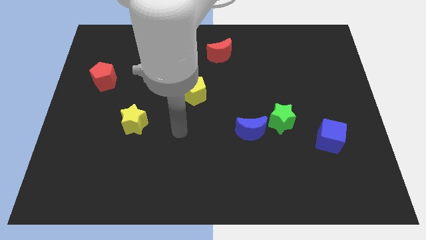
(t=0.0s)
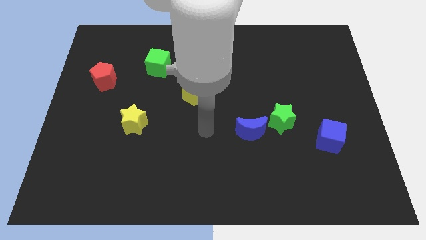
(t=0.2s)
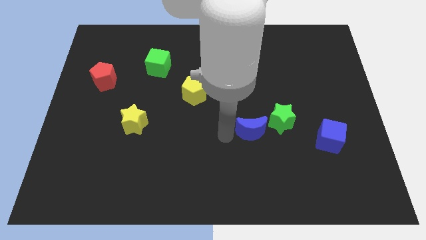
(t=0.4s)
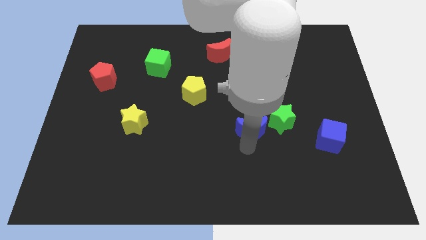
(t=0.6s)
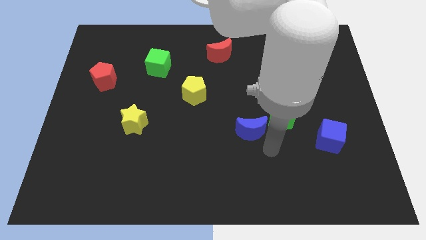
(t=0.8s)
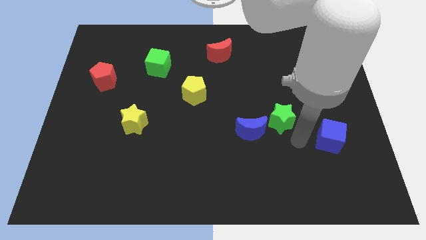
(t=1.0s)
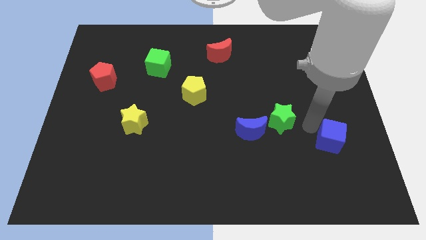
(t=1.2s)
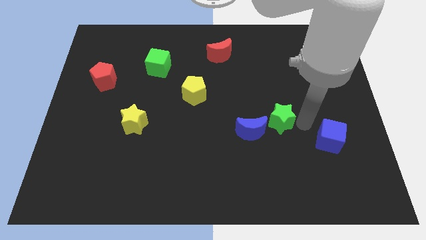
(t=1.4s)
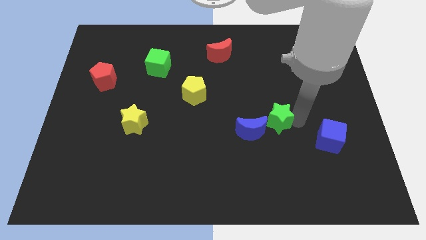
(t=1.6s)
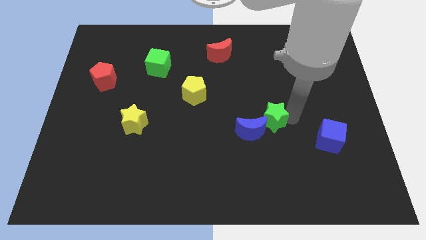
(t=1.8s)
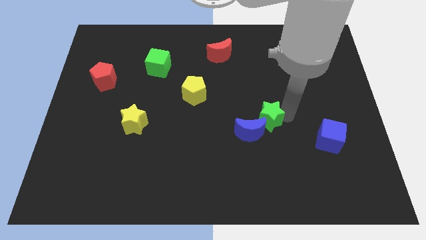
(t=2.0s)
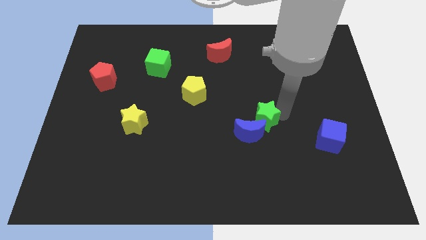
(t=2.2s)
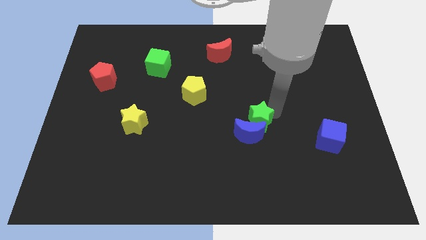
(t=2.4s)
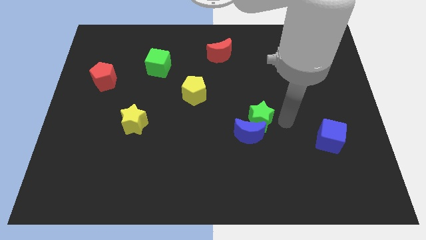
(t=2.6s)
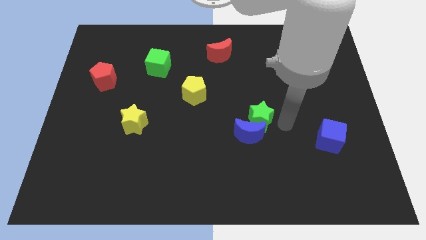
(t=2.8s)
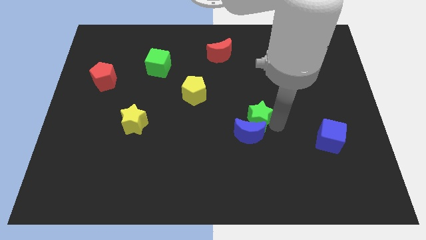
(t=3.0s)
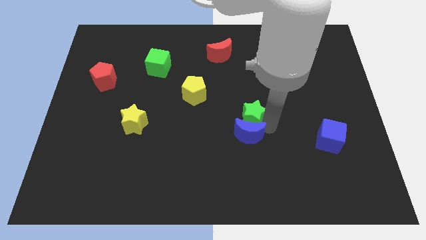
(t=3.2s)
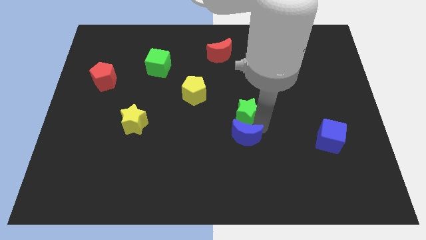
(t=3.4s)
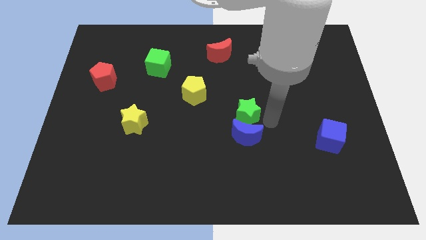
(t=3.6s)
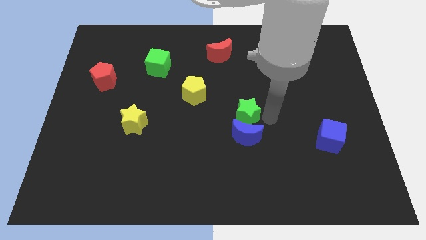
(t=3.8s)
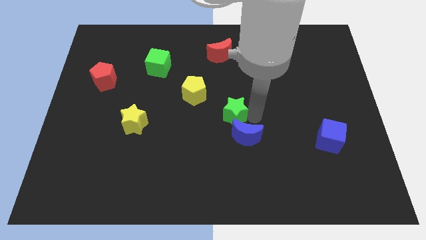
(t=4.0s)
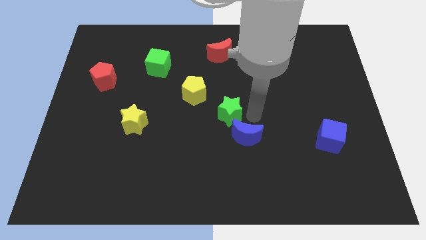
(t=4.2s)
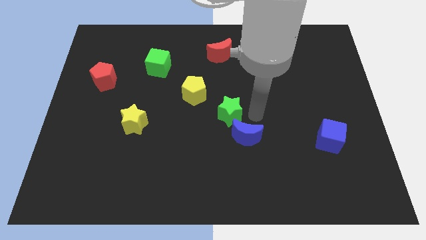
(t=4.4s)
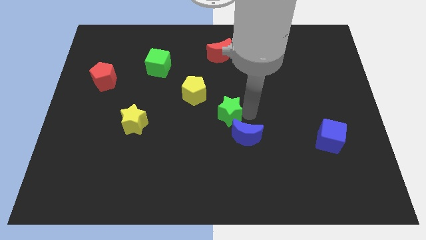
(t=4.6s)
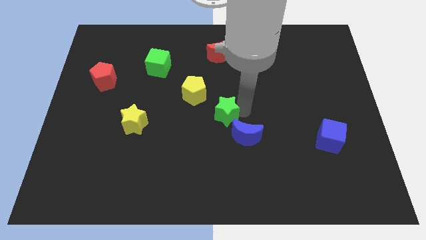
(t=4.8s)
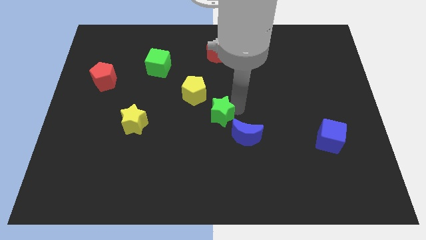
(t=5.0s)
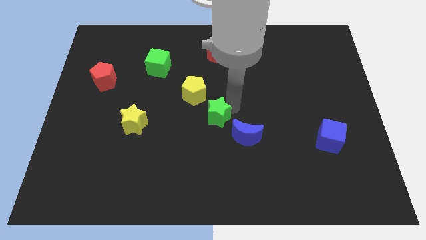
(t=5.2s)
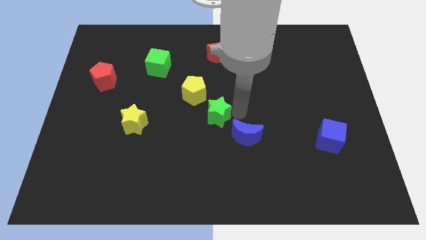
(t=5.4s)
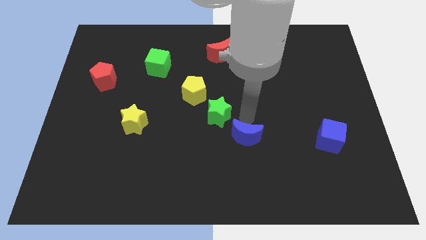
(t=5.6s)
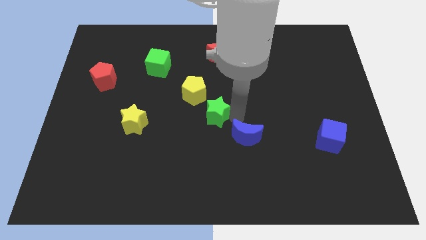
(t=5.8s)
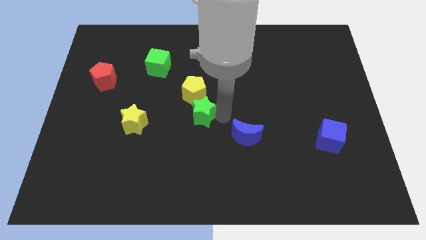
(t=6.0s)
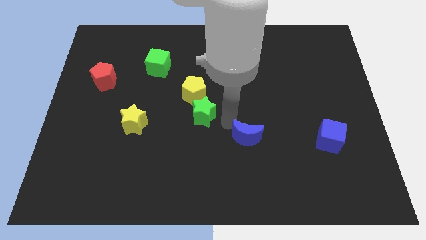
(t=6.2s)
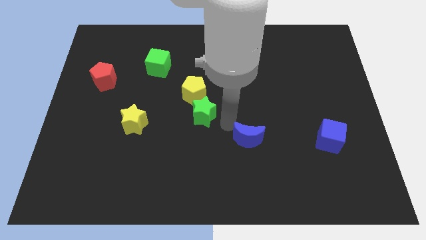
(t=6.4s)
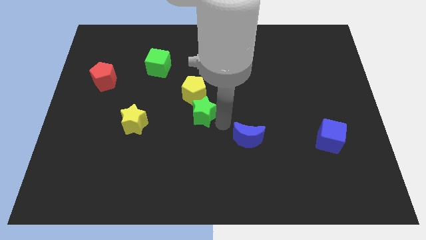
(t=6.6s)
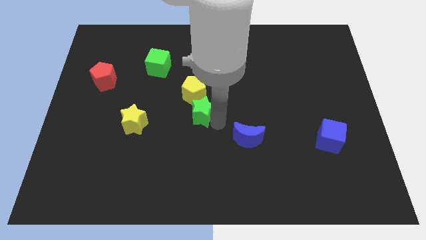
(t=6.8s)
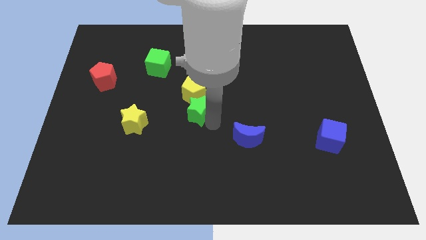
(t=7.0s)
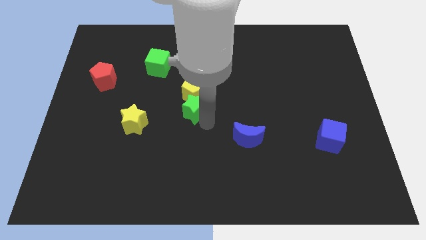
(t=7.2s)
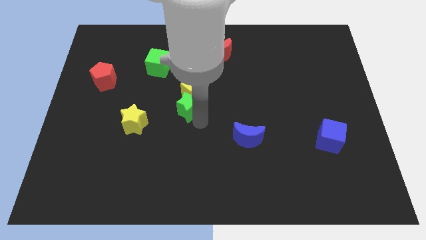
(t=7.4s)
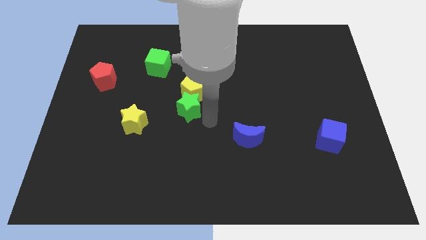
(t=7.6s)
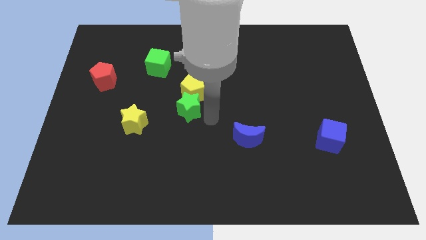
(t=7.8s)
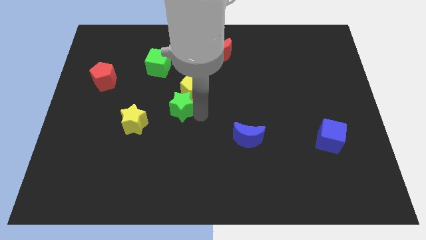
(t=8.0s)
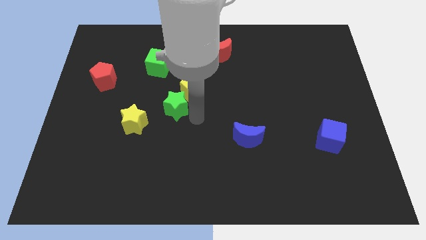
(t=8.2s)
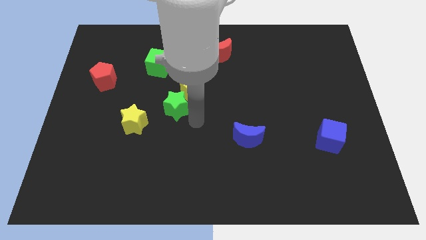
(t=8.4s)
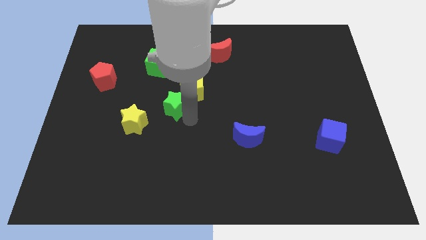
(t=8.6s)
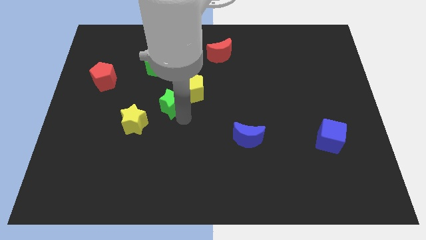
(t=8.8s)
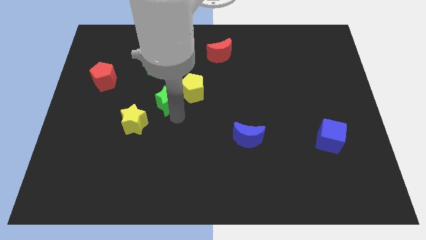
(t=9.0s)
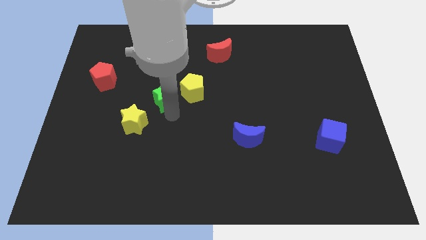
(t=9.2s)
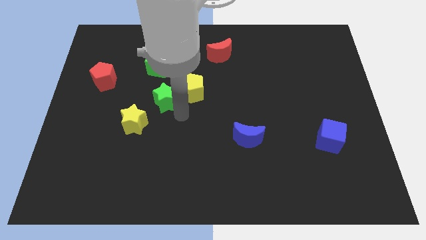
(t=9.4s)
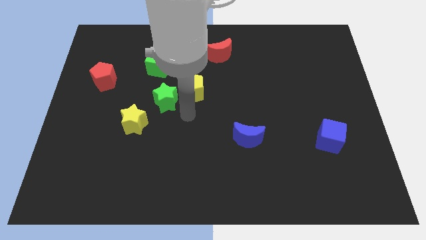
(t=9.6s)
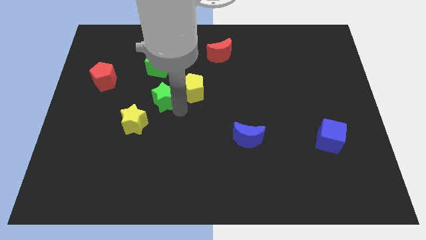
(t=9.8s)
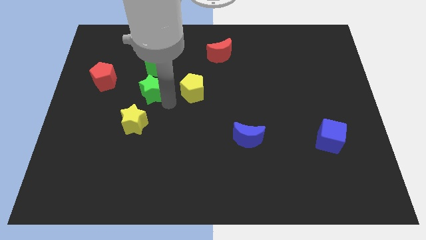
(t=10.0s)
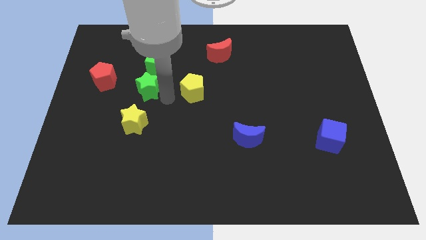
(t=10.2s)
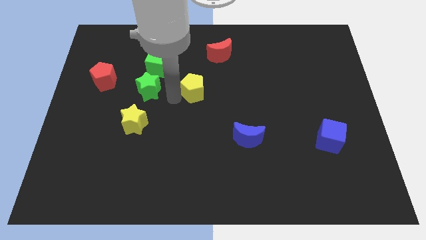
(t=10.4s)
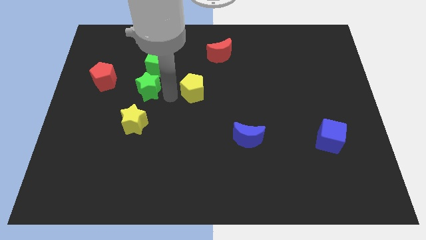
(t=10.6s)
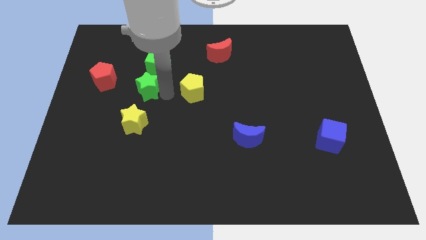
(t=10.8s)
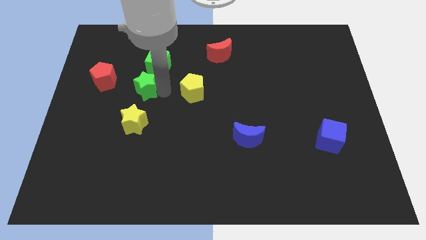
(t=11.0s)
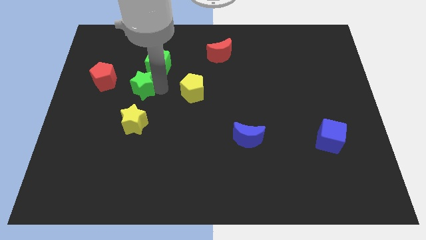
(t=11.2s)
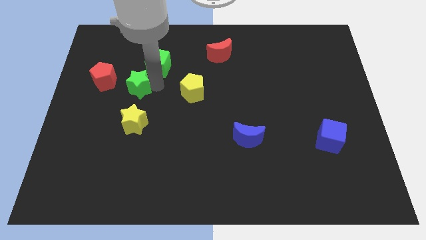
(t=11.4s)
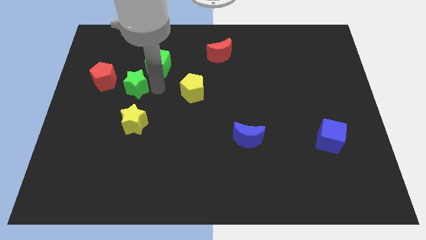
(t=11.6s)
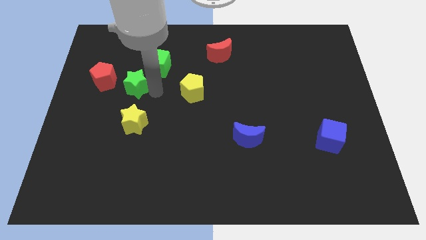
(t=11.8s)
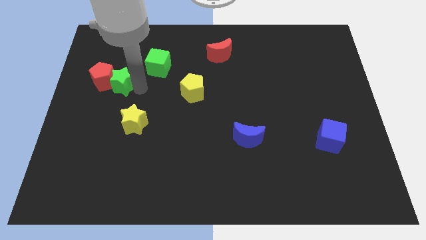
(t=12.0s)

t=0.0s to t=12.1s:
slide the green star close to the red pentagon

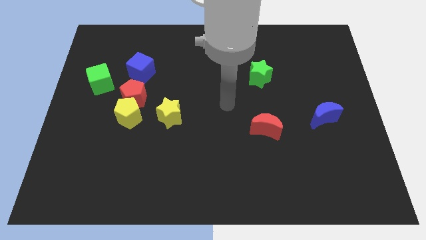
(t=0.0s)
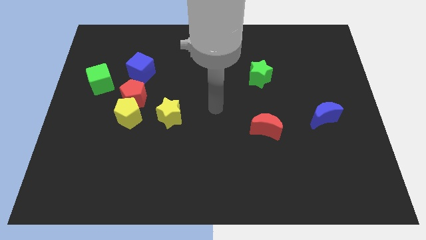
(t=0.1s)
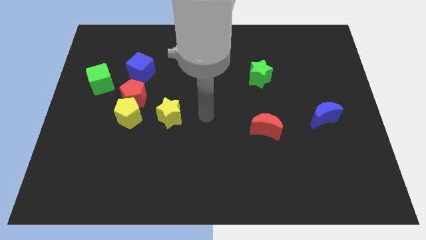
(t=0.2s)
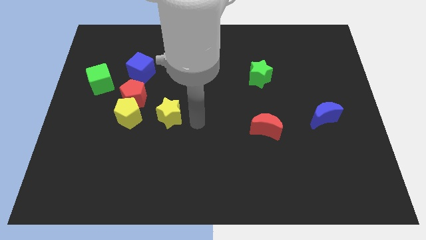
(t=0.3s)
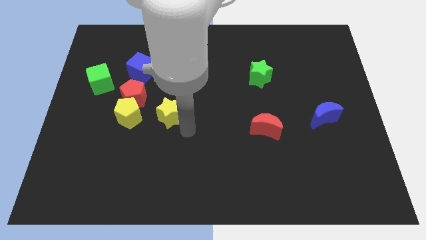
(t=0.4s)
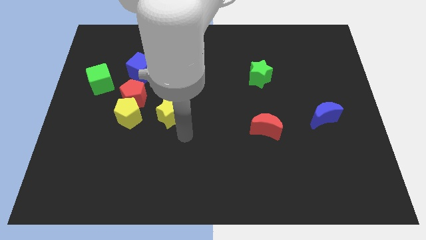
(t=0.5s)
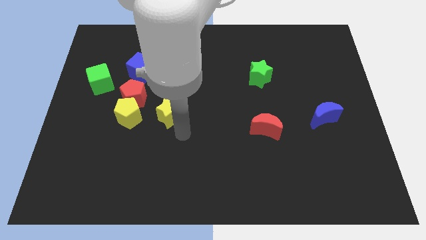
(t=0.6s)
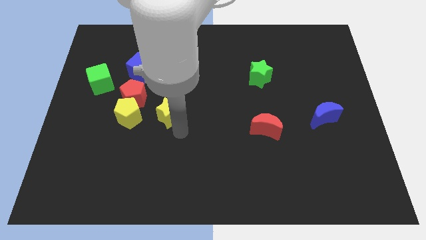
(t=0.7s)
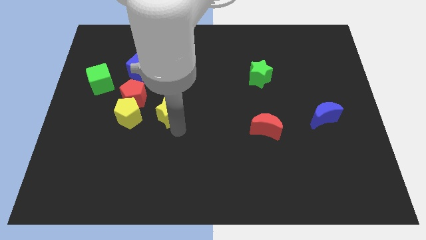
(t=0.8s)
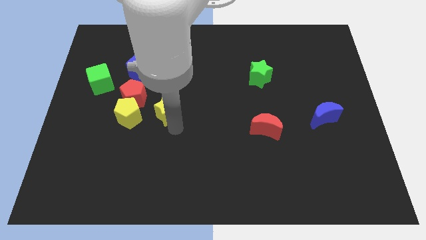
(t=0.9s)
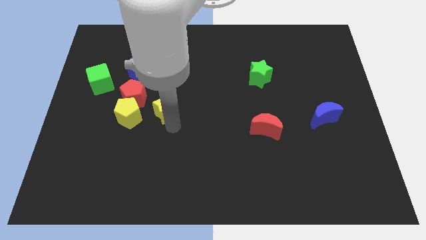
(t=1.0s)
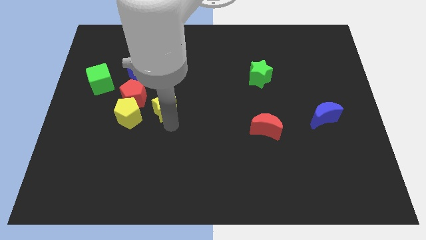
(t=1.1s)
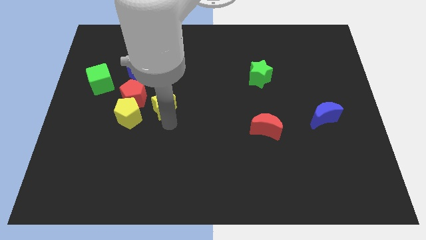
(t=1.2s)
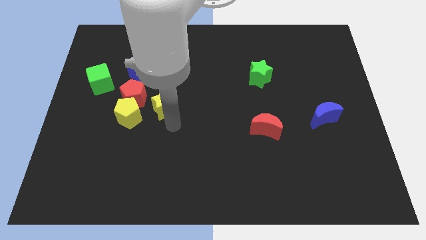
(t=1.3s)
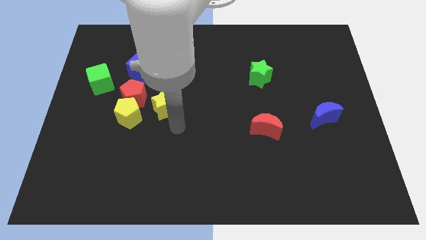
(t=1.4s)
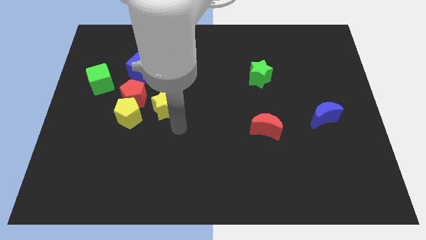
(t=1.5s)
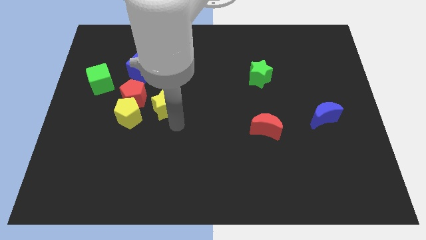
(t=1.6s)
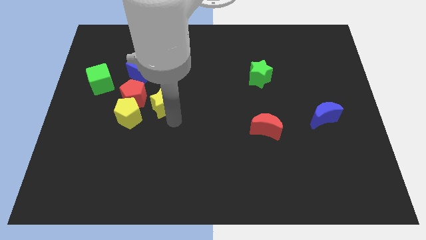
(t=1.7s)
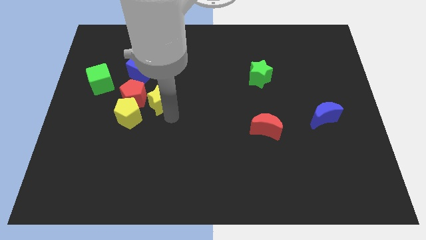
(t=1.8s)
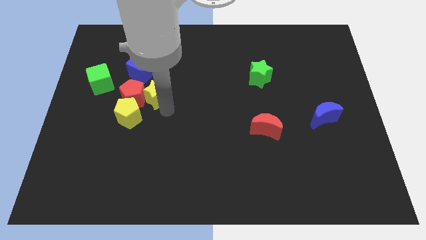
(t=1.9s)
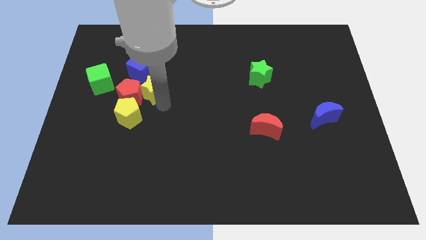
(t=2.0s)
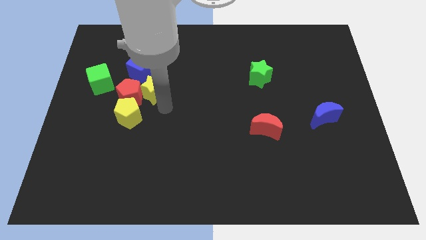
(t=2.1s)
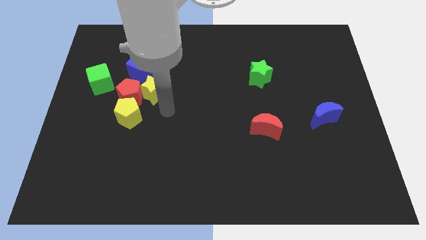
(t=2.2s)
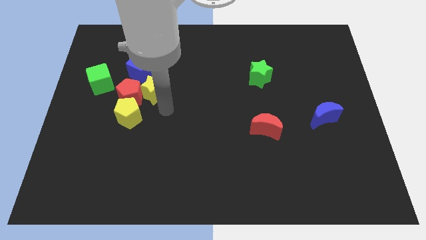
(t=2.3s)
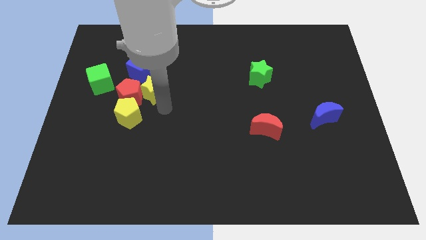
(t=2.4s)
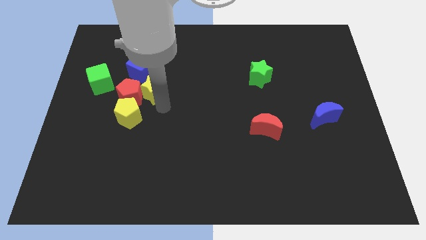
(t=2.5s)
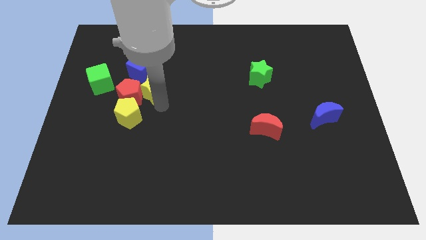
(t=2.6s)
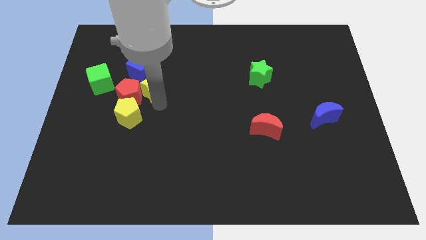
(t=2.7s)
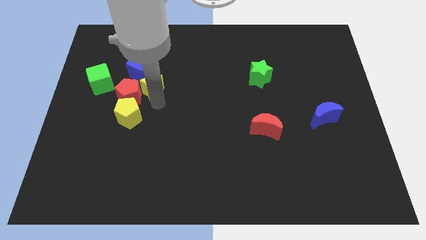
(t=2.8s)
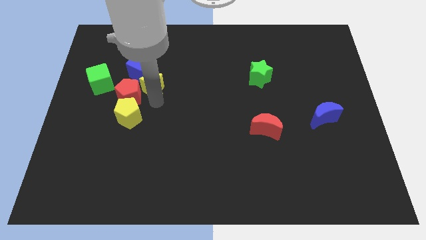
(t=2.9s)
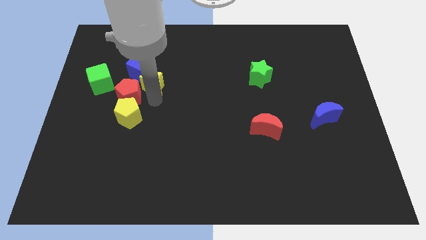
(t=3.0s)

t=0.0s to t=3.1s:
put the yellow star next to the blue cube
